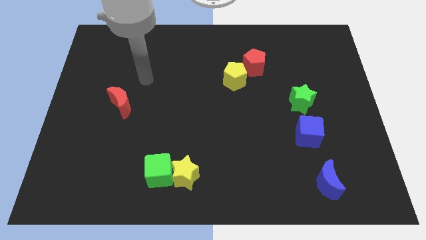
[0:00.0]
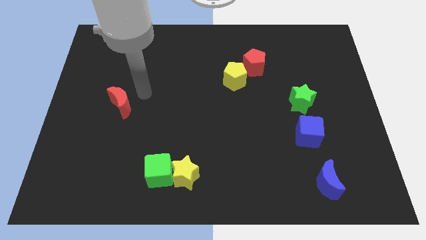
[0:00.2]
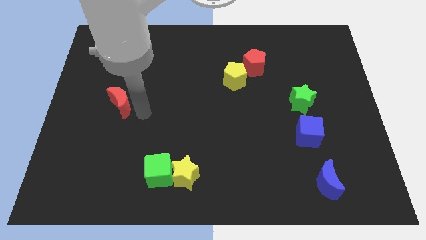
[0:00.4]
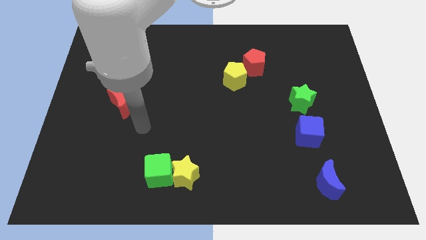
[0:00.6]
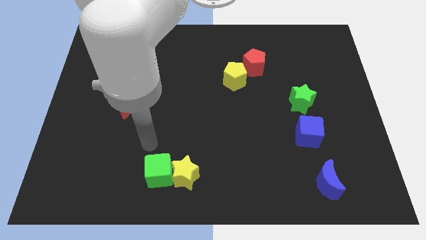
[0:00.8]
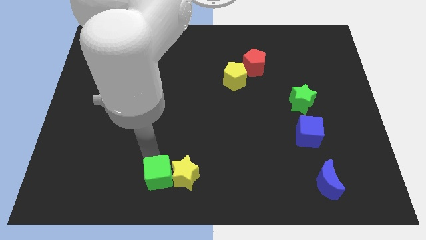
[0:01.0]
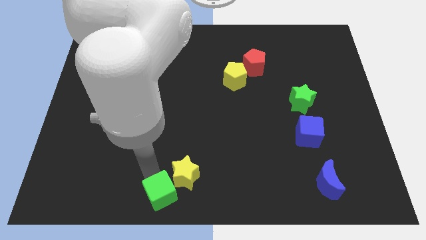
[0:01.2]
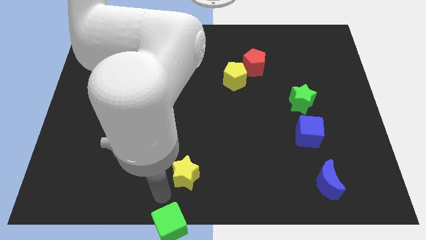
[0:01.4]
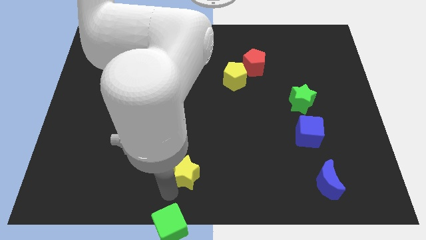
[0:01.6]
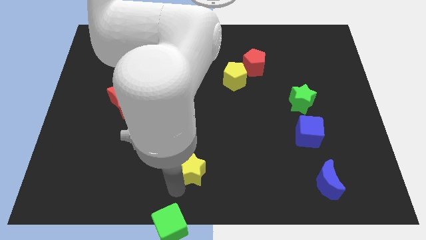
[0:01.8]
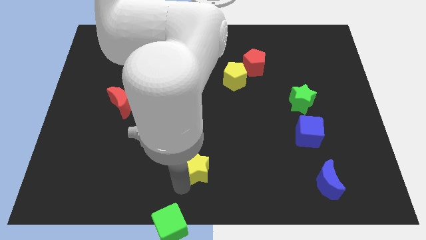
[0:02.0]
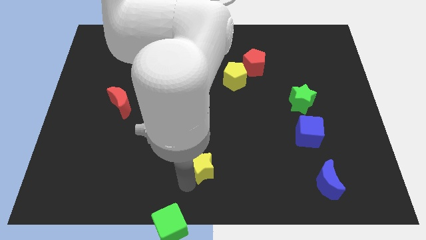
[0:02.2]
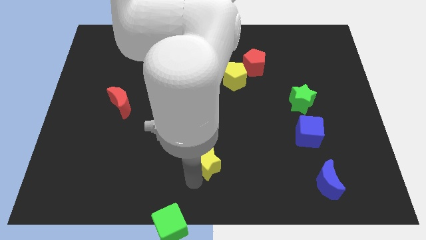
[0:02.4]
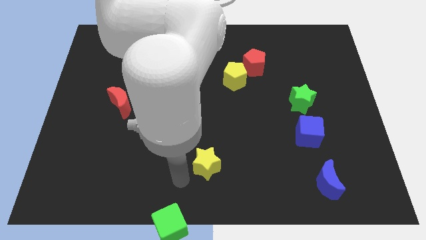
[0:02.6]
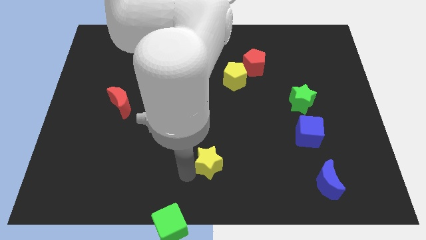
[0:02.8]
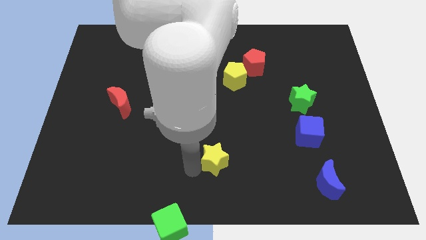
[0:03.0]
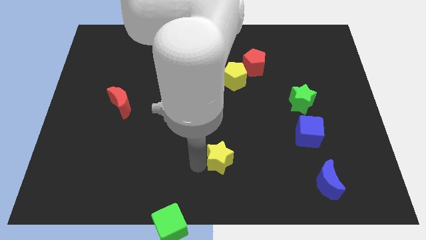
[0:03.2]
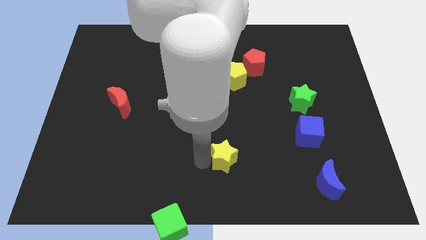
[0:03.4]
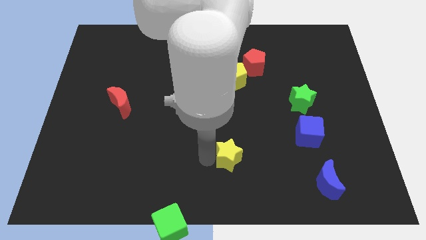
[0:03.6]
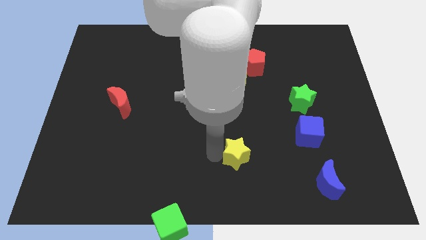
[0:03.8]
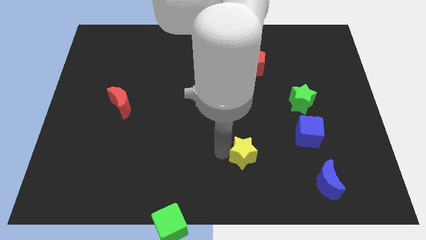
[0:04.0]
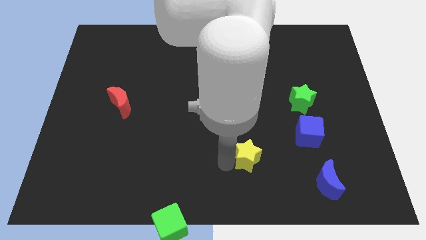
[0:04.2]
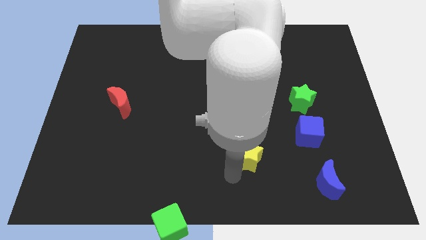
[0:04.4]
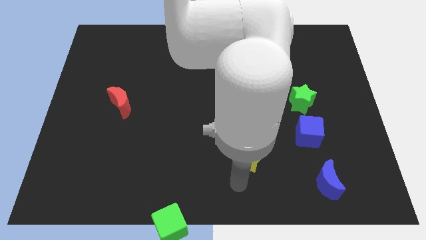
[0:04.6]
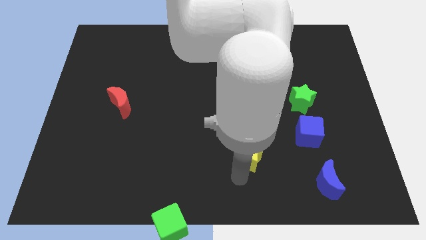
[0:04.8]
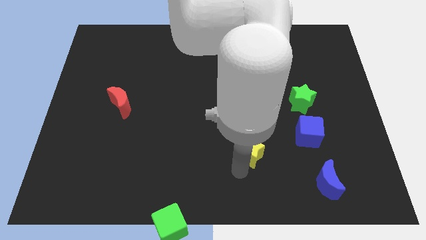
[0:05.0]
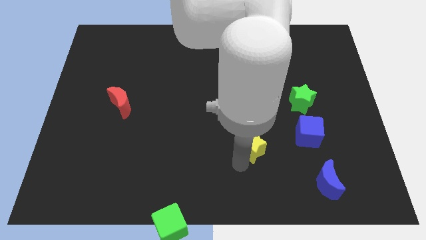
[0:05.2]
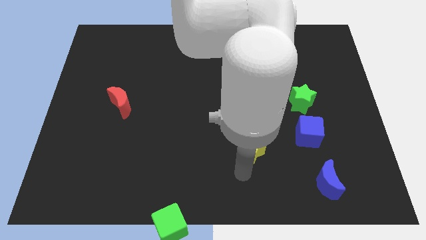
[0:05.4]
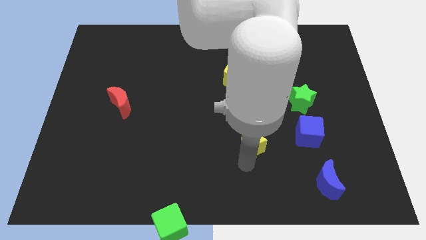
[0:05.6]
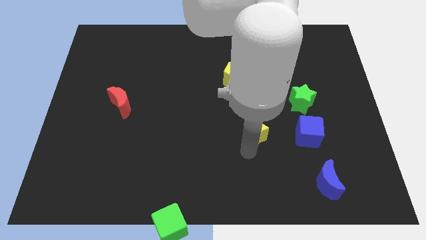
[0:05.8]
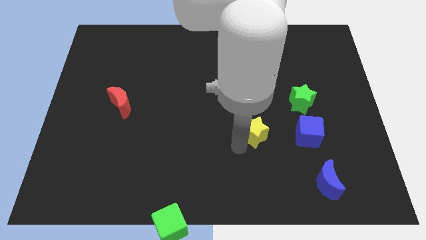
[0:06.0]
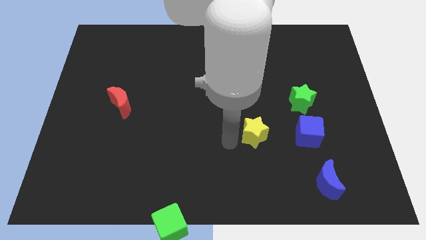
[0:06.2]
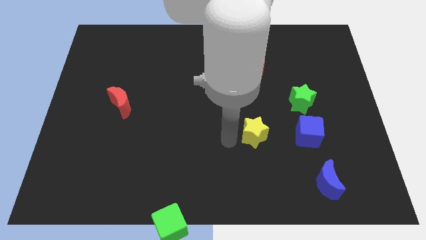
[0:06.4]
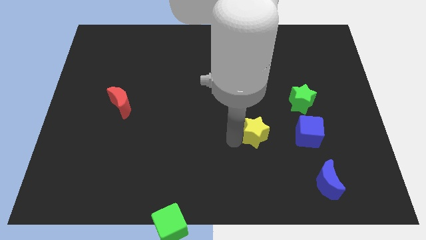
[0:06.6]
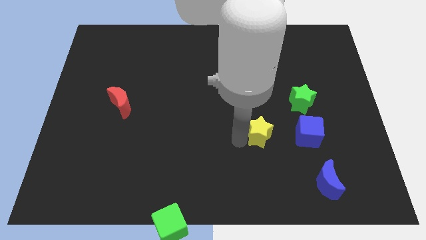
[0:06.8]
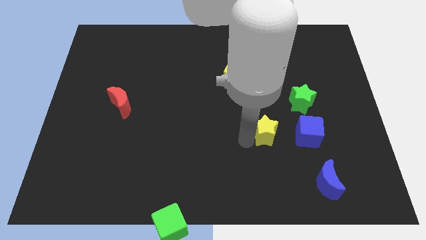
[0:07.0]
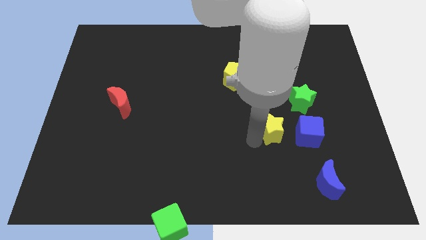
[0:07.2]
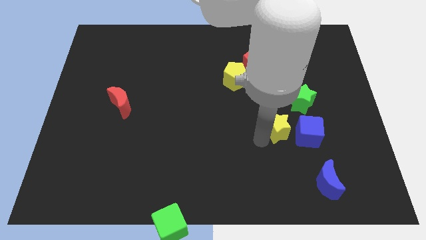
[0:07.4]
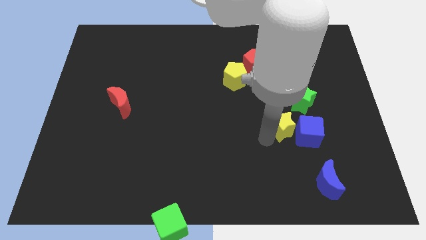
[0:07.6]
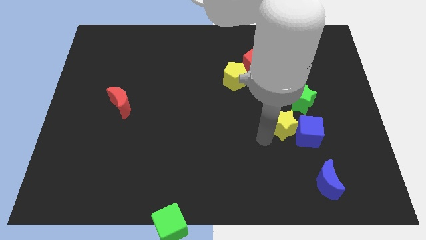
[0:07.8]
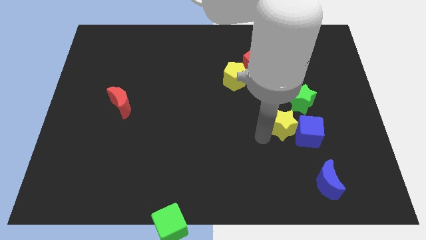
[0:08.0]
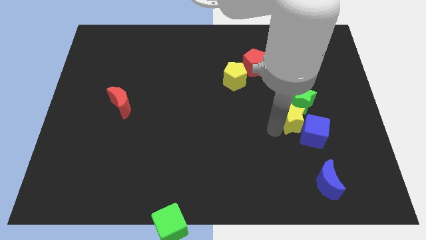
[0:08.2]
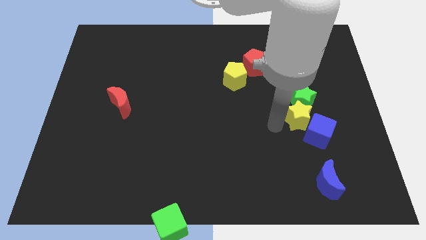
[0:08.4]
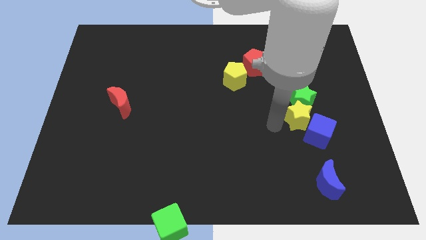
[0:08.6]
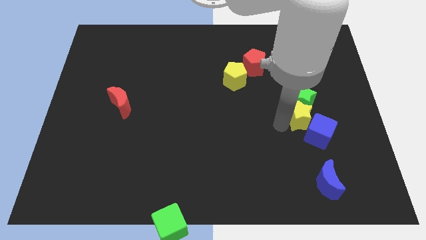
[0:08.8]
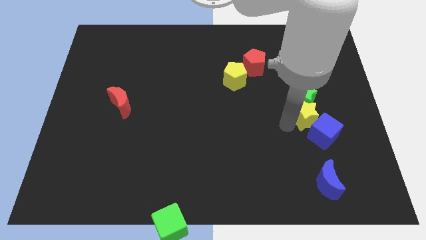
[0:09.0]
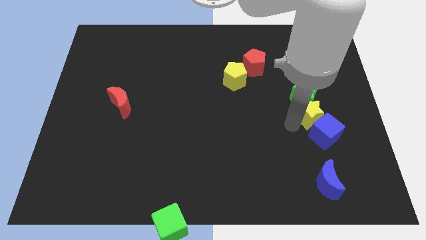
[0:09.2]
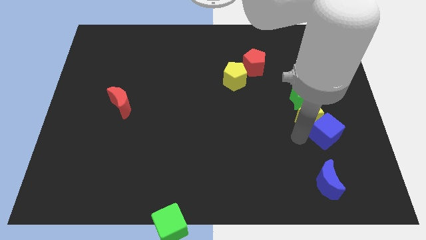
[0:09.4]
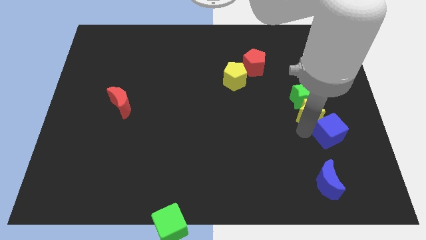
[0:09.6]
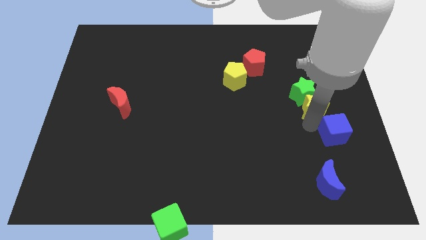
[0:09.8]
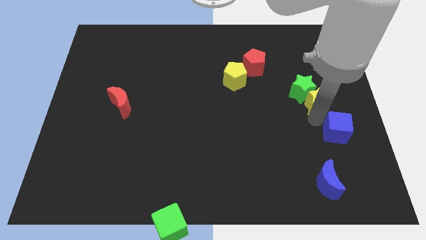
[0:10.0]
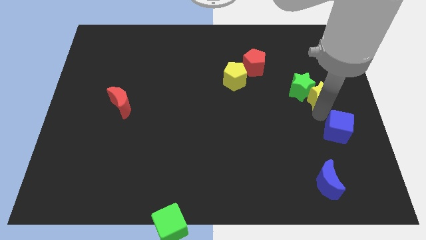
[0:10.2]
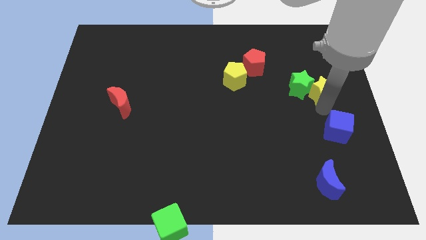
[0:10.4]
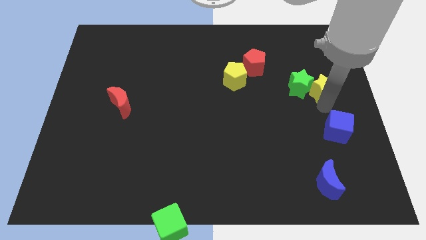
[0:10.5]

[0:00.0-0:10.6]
move the yellow star to the top right side of the green star

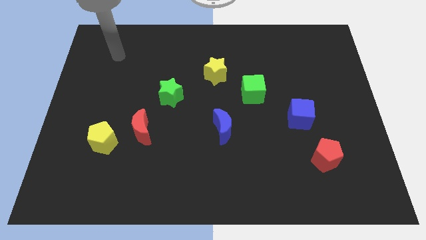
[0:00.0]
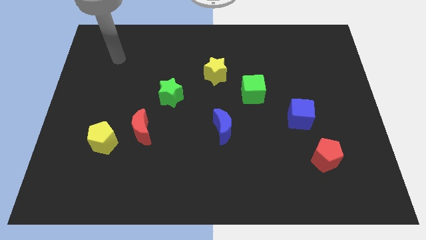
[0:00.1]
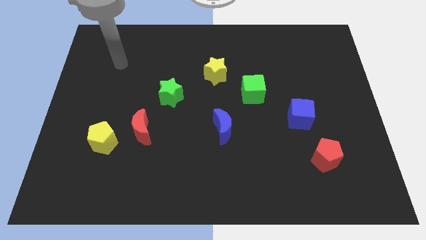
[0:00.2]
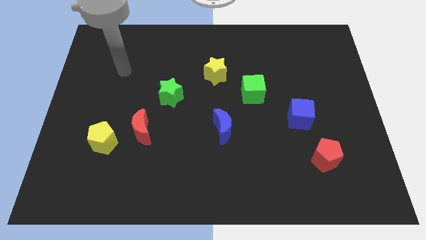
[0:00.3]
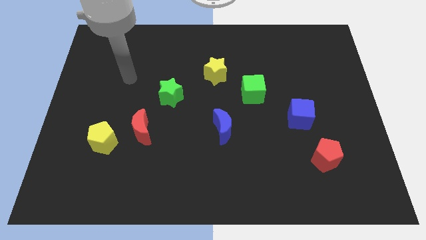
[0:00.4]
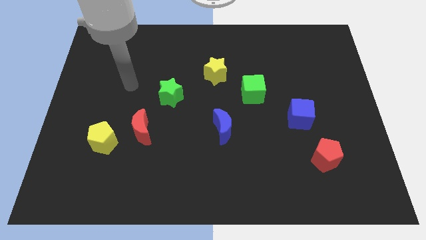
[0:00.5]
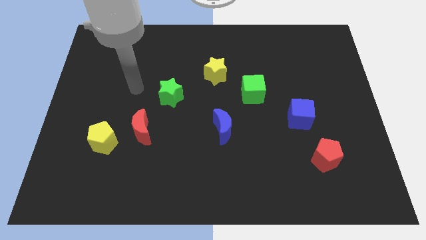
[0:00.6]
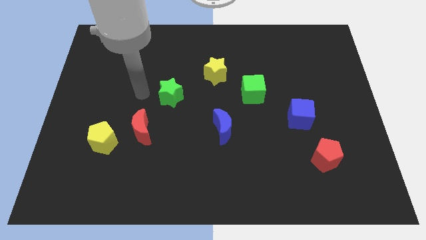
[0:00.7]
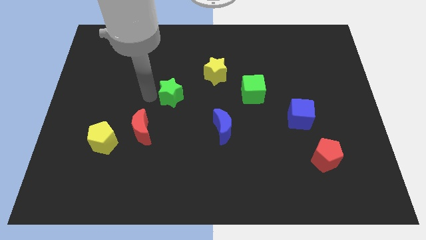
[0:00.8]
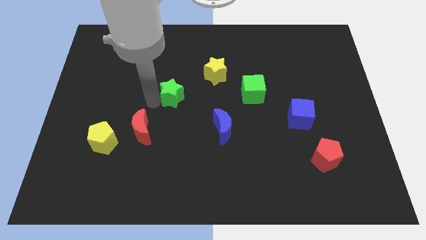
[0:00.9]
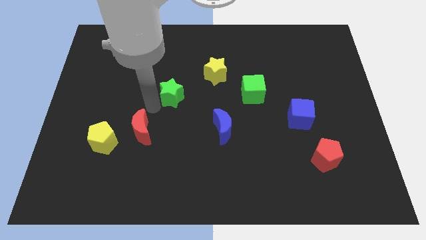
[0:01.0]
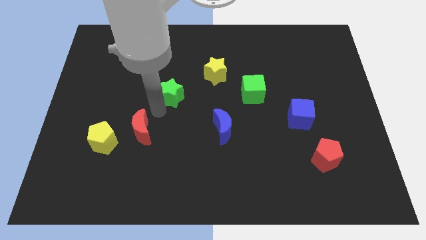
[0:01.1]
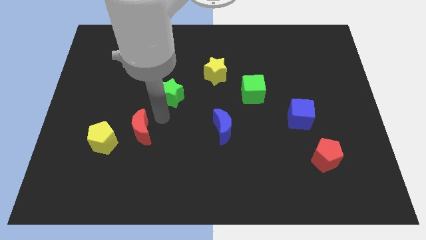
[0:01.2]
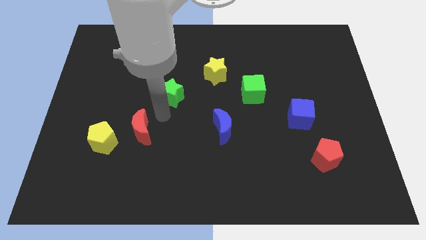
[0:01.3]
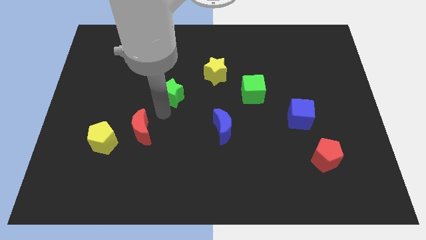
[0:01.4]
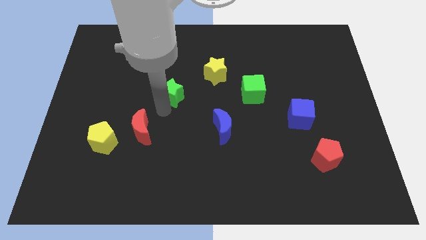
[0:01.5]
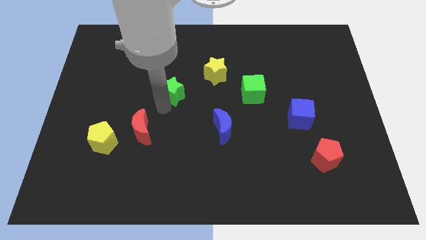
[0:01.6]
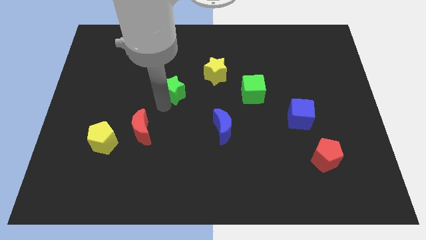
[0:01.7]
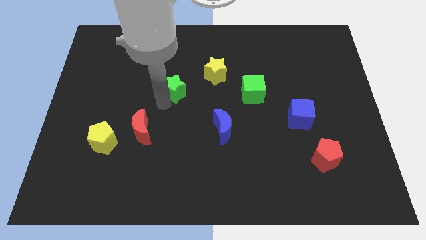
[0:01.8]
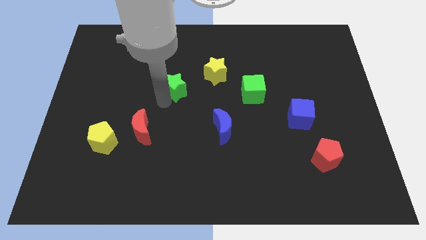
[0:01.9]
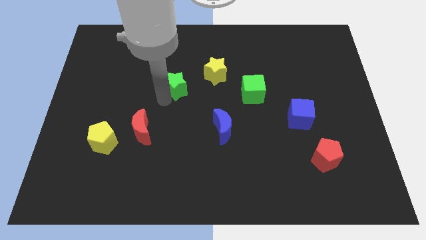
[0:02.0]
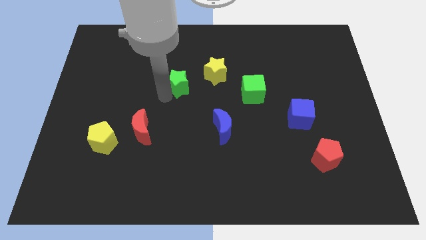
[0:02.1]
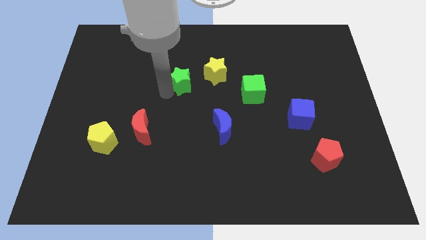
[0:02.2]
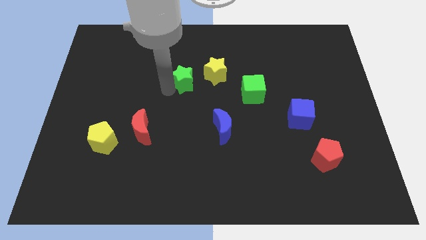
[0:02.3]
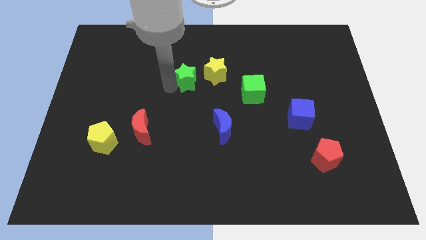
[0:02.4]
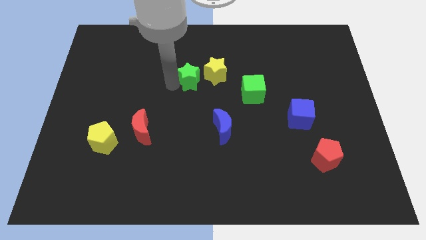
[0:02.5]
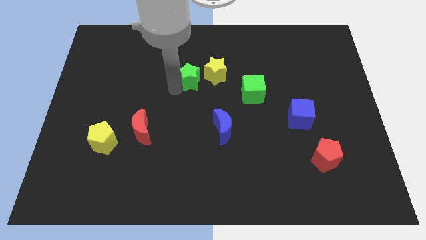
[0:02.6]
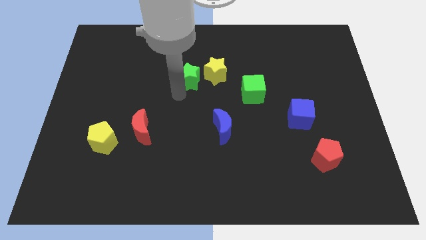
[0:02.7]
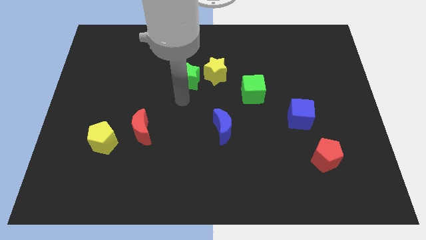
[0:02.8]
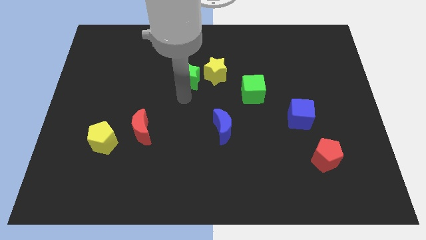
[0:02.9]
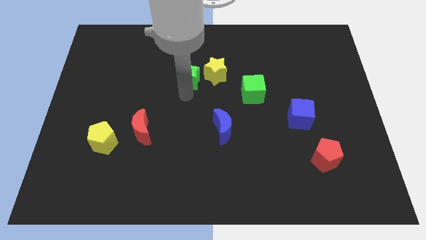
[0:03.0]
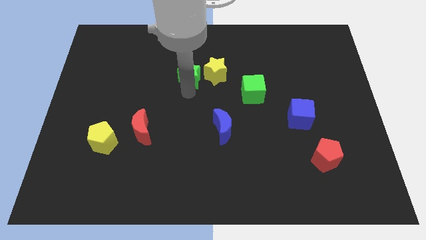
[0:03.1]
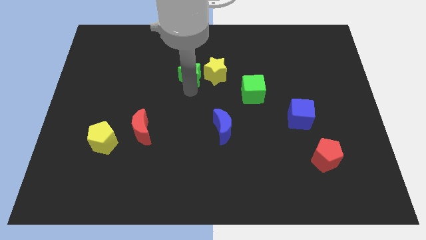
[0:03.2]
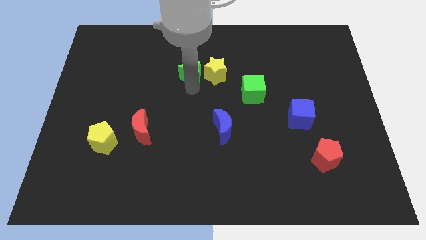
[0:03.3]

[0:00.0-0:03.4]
push the green star to the top left side of the yellow star
